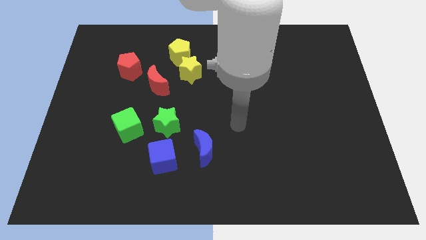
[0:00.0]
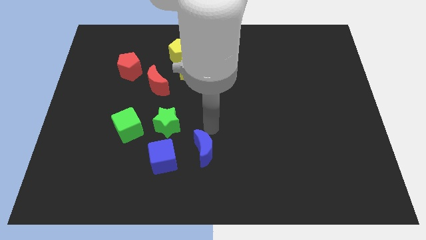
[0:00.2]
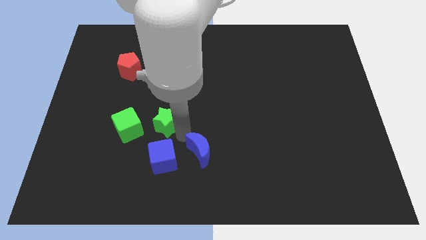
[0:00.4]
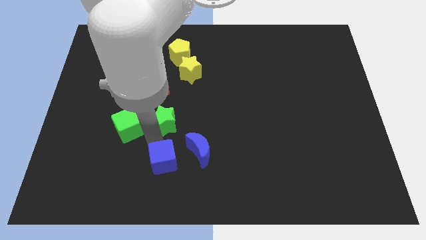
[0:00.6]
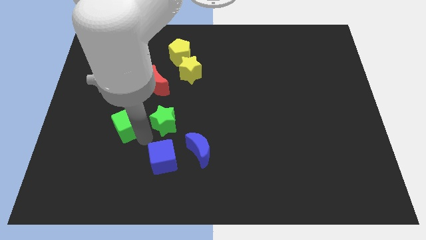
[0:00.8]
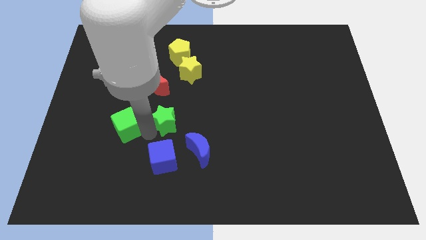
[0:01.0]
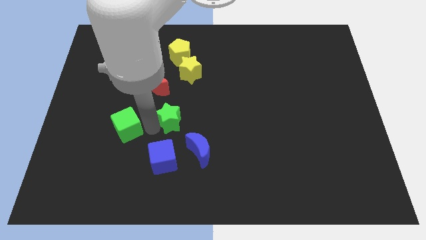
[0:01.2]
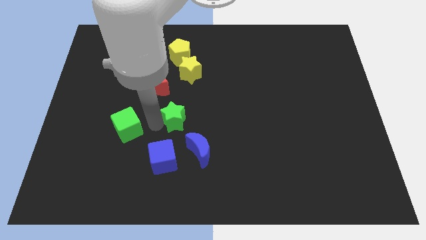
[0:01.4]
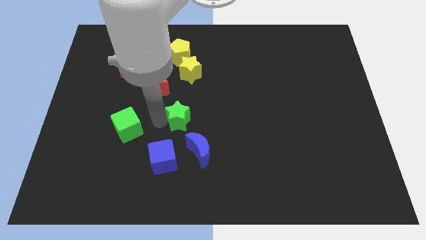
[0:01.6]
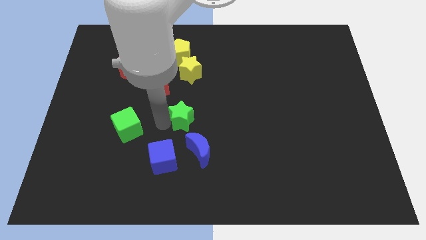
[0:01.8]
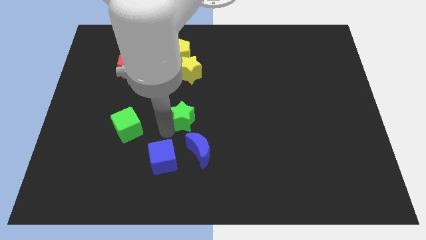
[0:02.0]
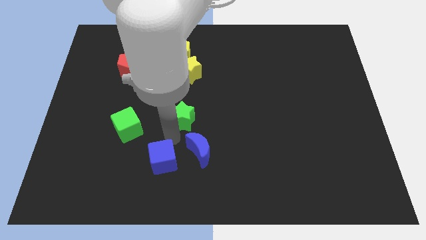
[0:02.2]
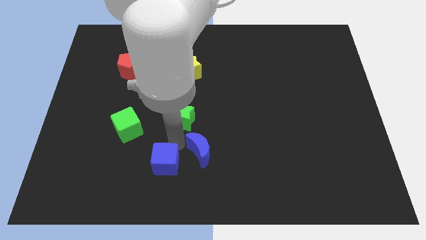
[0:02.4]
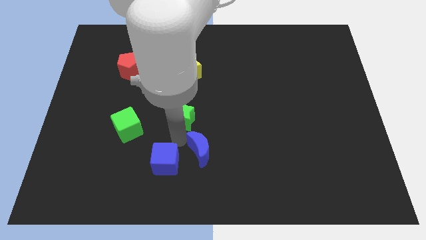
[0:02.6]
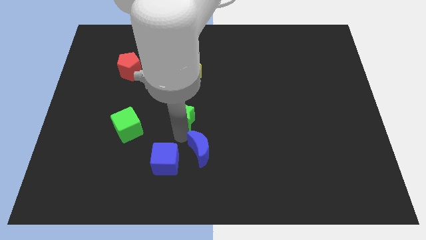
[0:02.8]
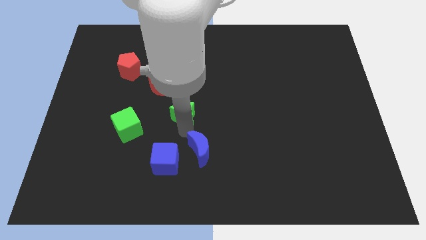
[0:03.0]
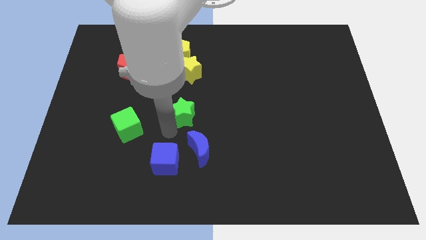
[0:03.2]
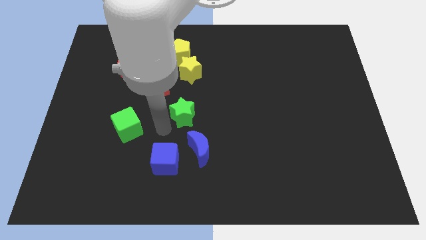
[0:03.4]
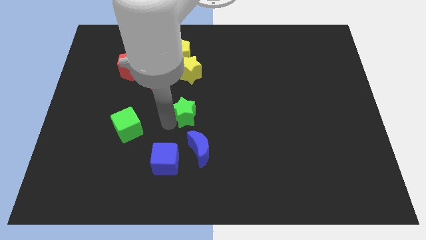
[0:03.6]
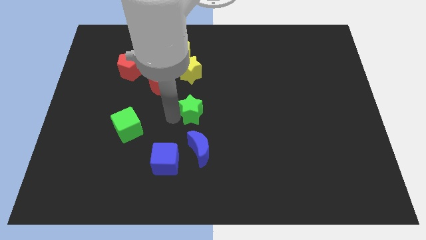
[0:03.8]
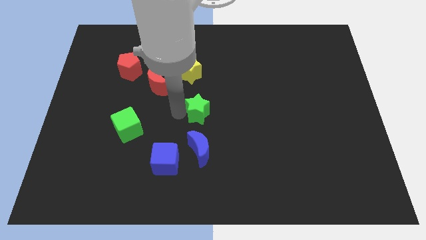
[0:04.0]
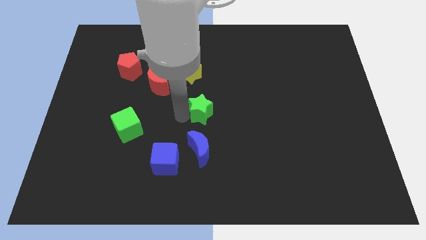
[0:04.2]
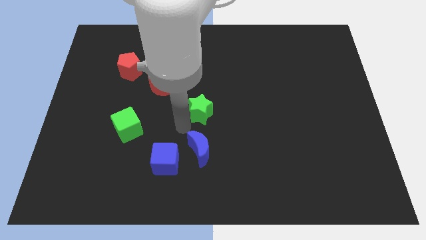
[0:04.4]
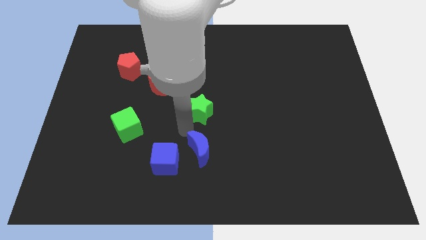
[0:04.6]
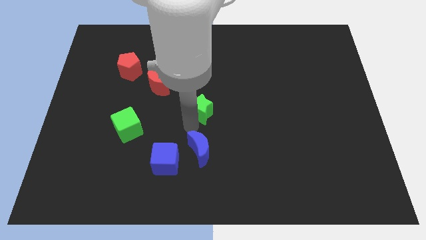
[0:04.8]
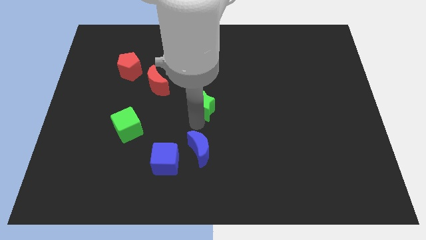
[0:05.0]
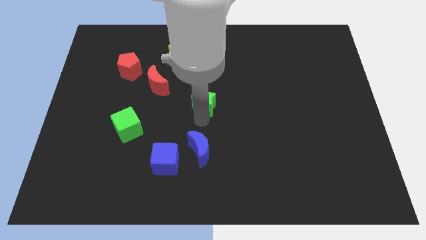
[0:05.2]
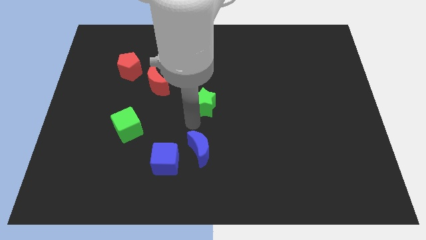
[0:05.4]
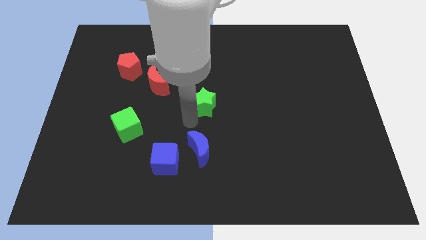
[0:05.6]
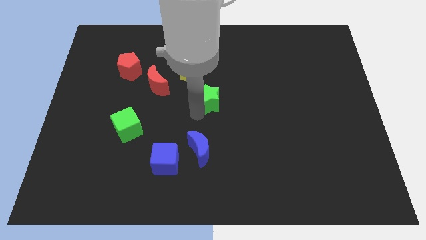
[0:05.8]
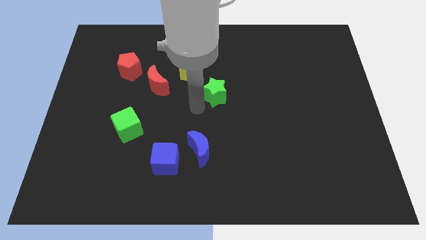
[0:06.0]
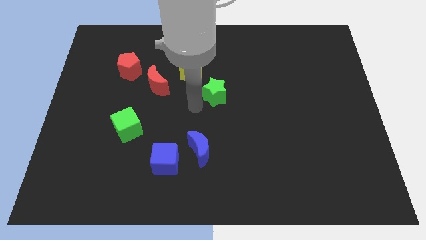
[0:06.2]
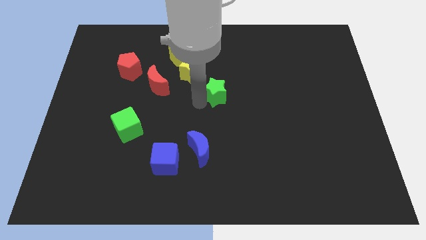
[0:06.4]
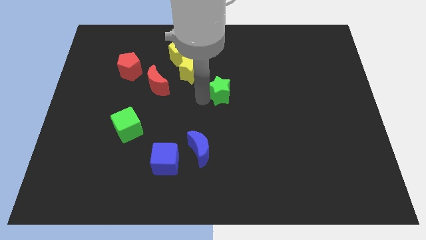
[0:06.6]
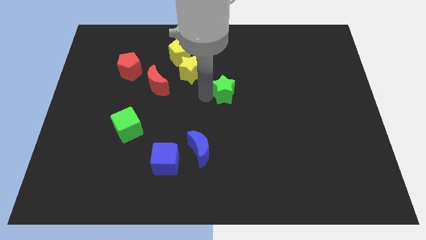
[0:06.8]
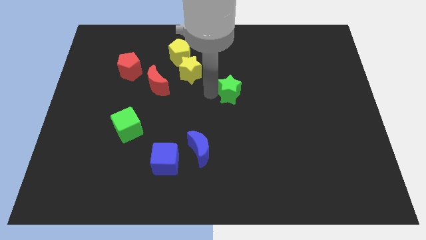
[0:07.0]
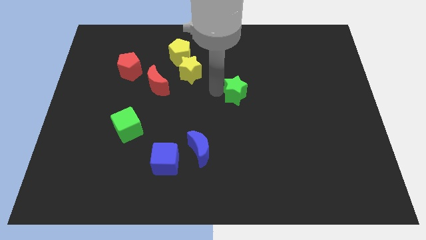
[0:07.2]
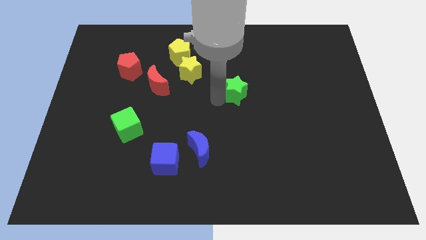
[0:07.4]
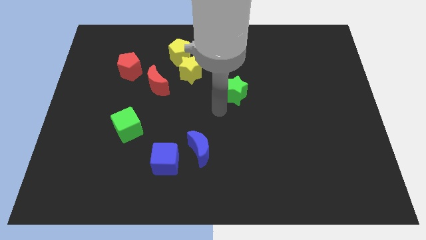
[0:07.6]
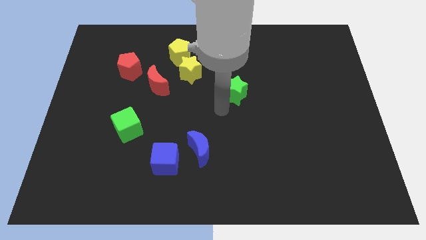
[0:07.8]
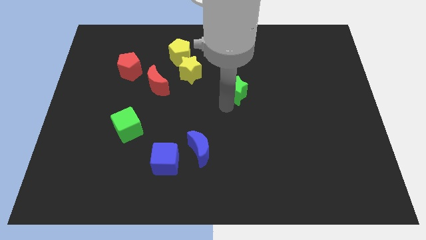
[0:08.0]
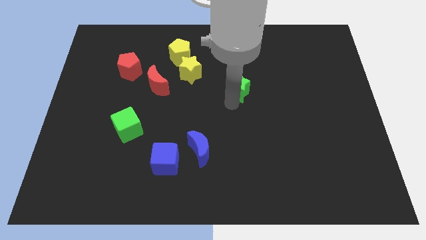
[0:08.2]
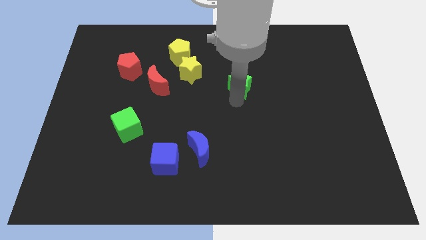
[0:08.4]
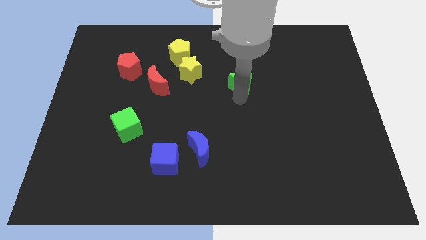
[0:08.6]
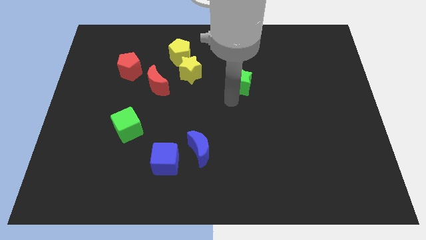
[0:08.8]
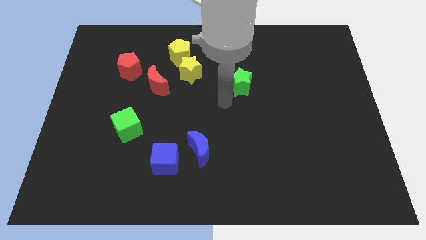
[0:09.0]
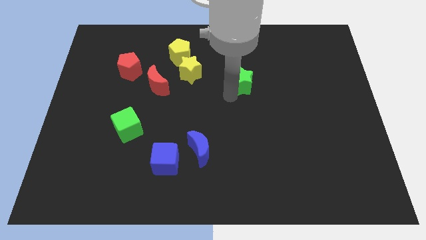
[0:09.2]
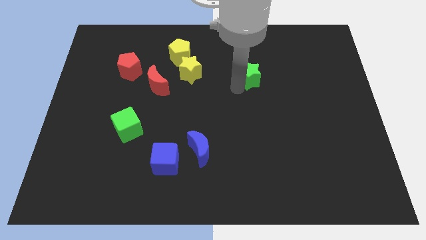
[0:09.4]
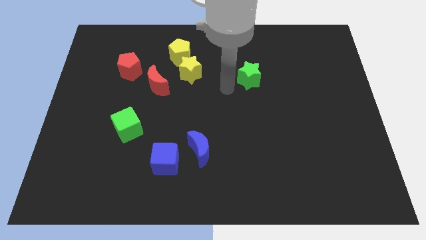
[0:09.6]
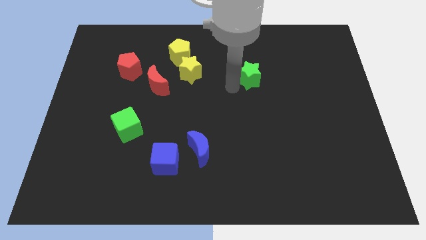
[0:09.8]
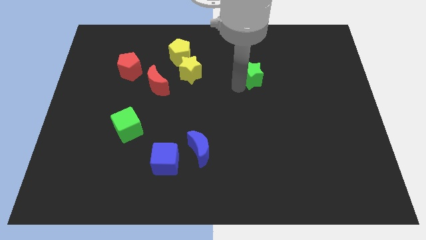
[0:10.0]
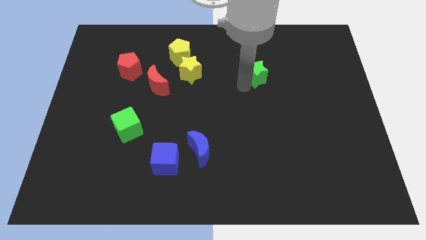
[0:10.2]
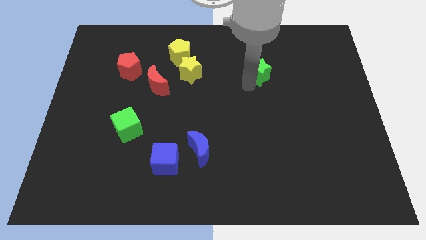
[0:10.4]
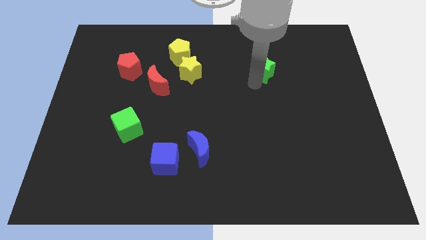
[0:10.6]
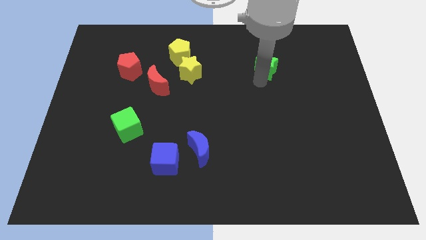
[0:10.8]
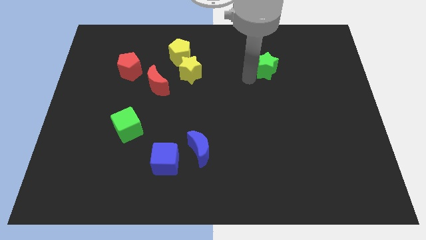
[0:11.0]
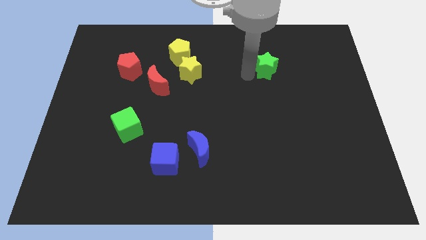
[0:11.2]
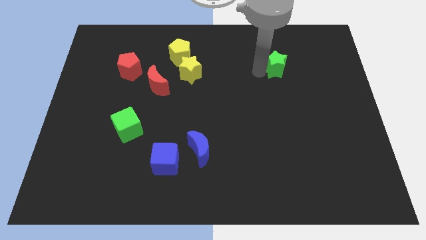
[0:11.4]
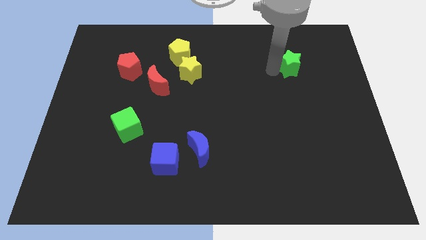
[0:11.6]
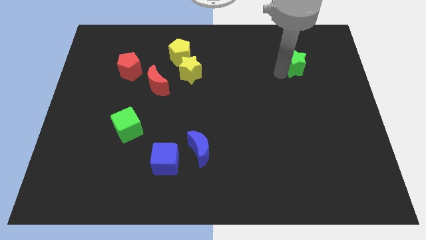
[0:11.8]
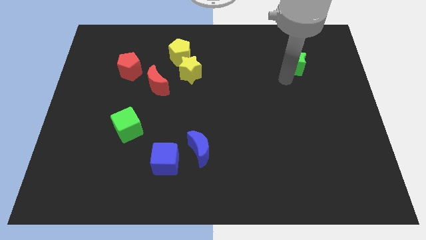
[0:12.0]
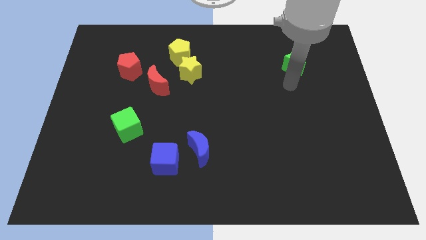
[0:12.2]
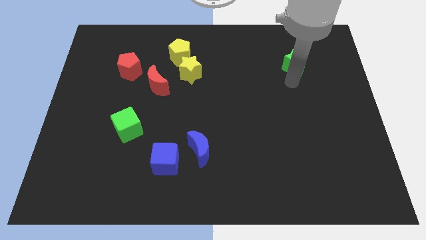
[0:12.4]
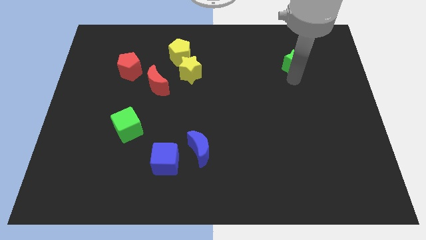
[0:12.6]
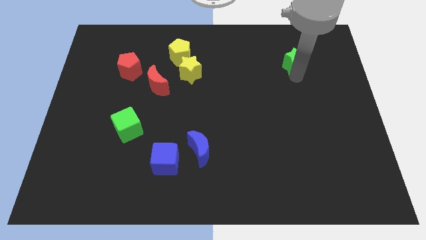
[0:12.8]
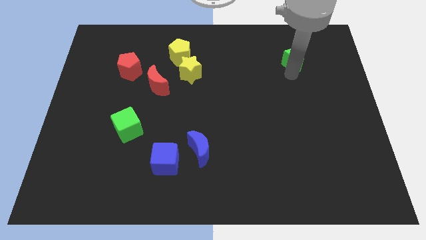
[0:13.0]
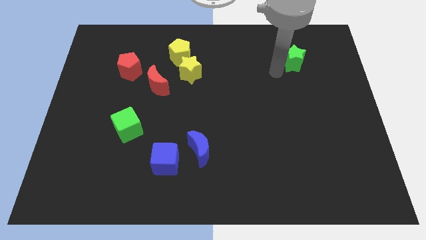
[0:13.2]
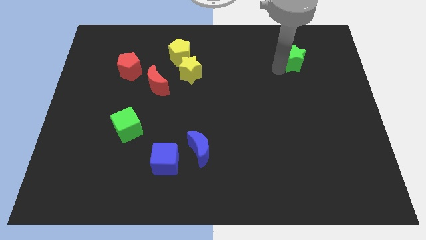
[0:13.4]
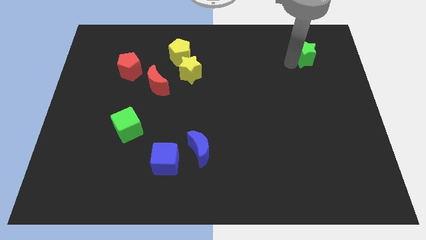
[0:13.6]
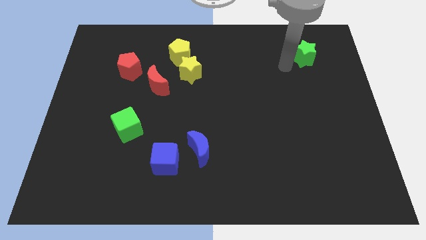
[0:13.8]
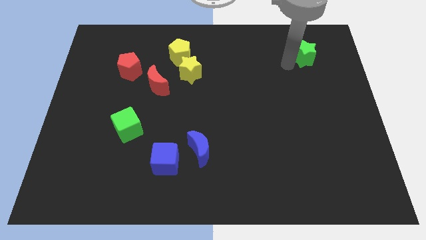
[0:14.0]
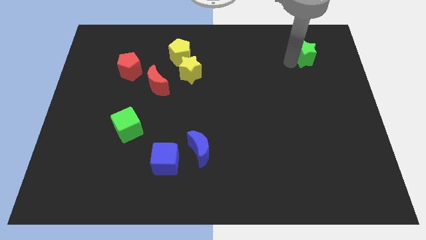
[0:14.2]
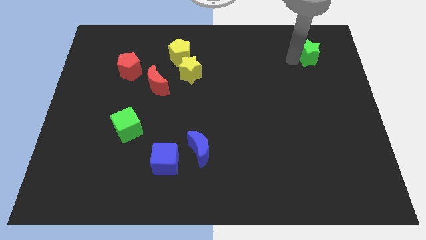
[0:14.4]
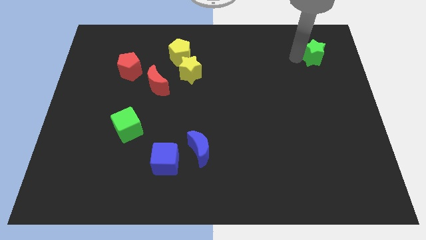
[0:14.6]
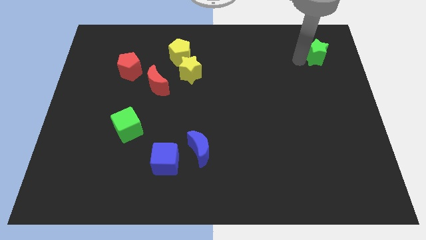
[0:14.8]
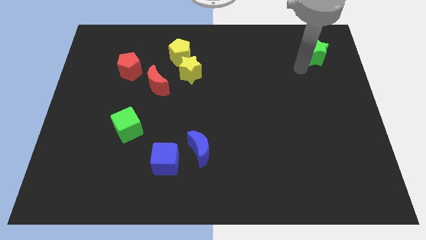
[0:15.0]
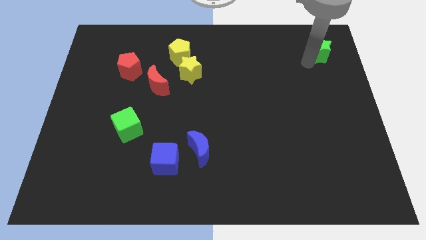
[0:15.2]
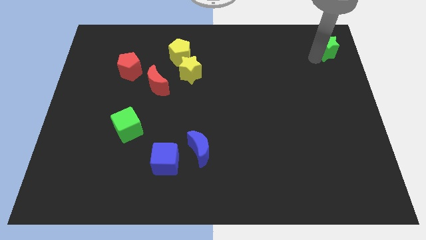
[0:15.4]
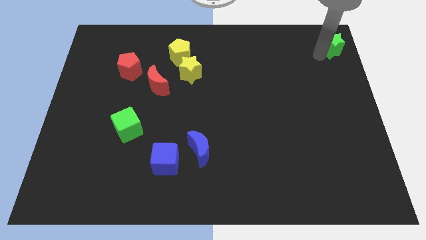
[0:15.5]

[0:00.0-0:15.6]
put the green star to the top right of the board
